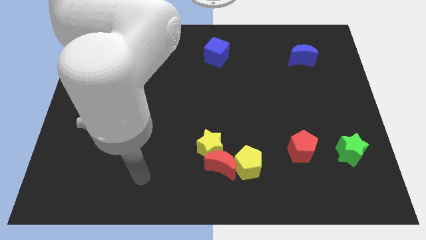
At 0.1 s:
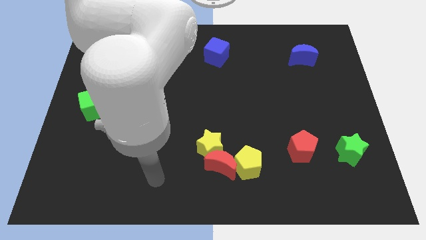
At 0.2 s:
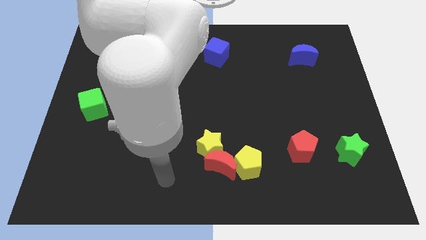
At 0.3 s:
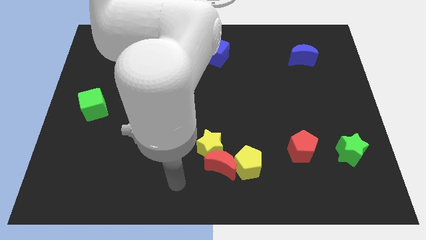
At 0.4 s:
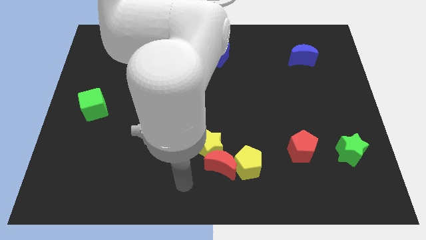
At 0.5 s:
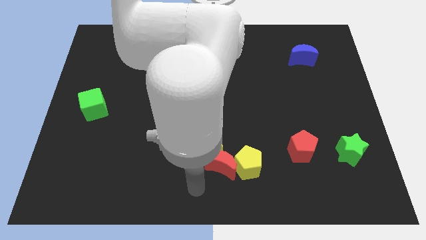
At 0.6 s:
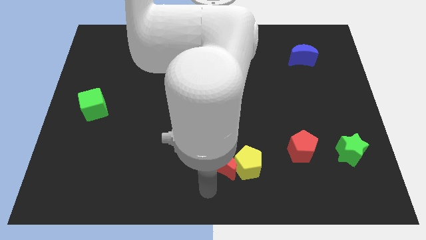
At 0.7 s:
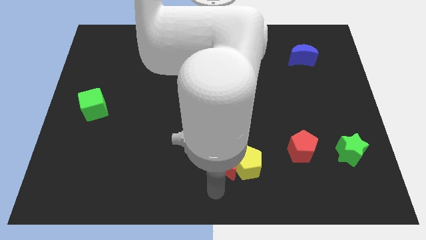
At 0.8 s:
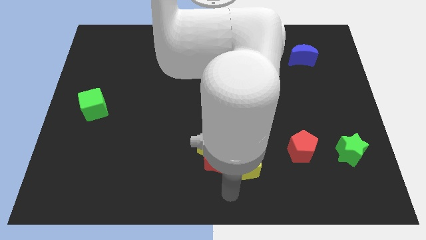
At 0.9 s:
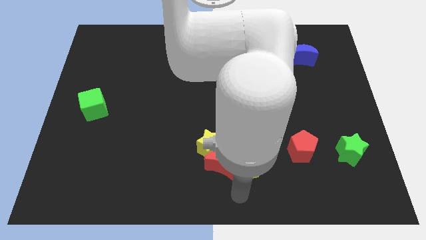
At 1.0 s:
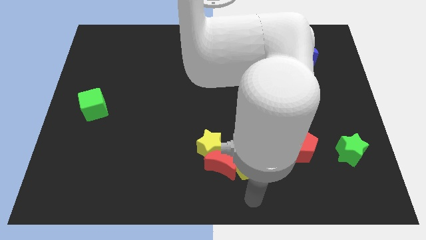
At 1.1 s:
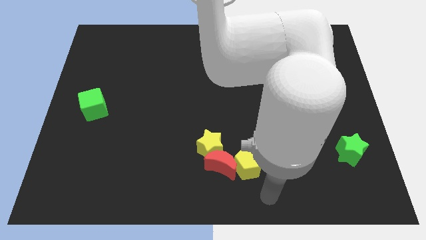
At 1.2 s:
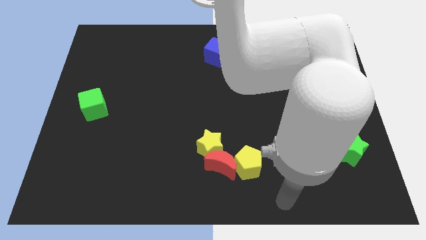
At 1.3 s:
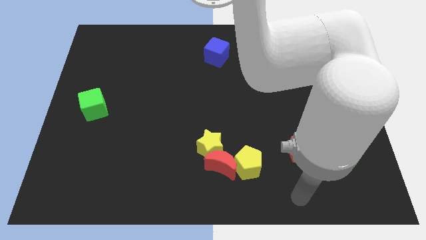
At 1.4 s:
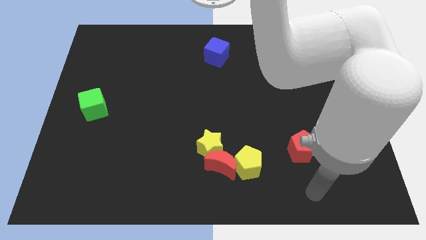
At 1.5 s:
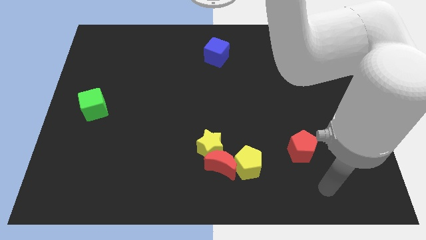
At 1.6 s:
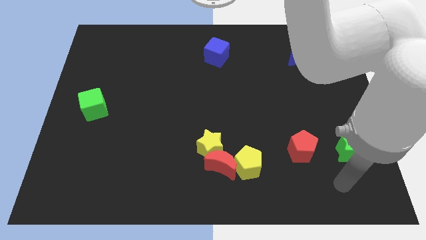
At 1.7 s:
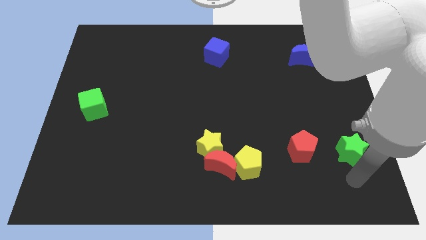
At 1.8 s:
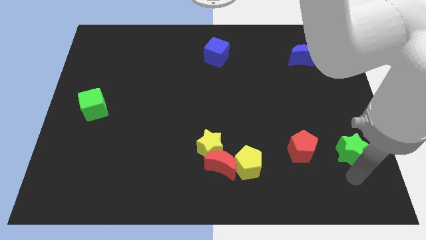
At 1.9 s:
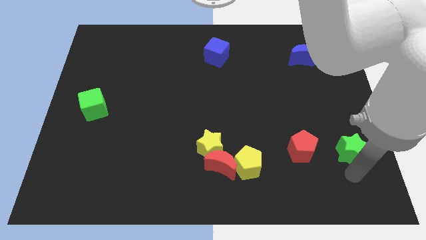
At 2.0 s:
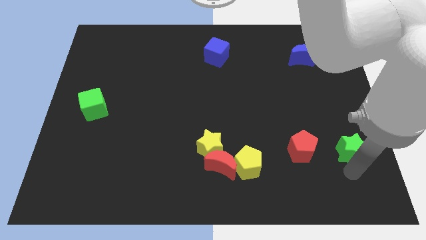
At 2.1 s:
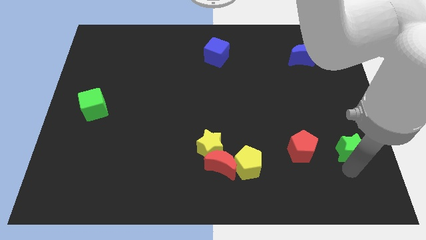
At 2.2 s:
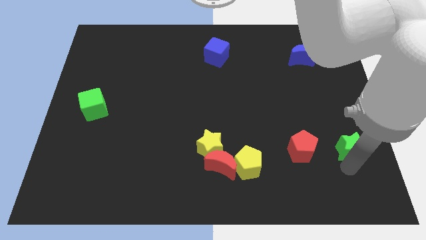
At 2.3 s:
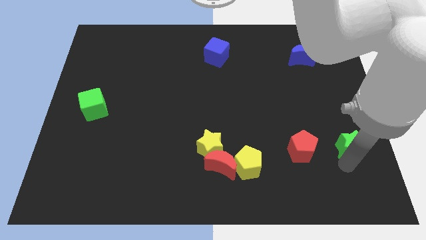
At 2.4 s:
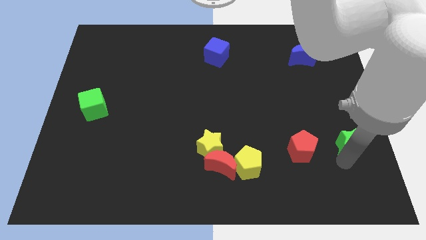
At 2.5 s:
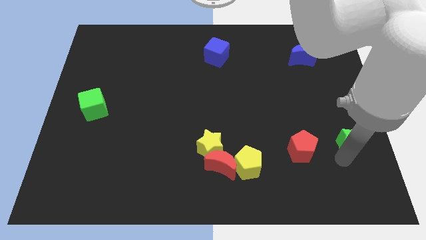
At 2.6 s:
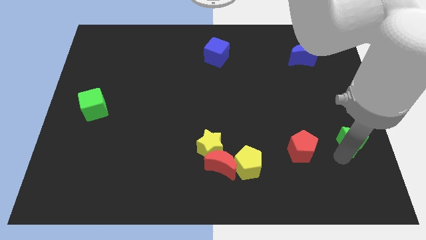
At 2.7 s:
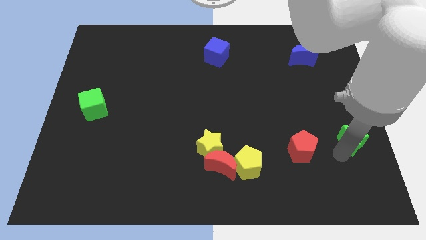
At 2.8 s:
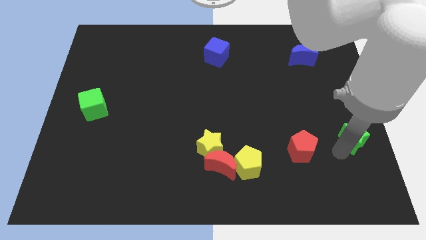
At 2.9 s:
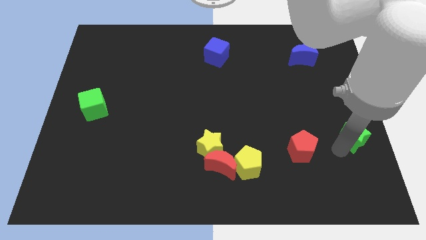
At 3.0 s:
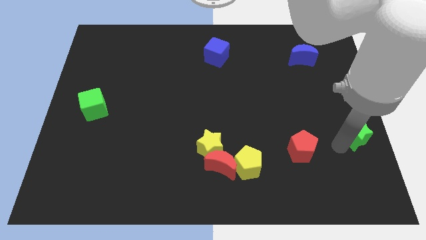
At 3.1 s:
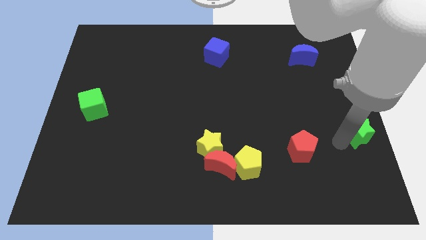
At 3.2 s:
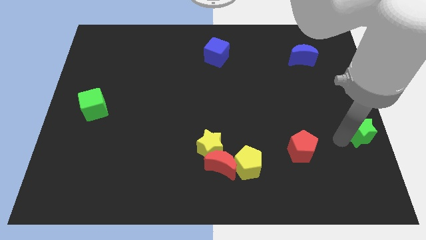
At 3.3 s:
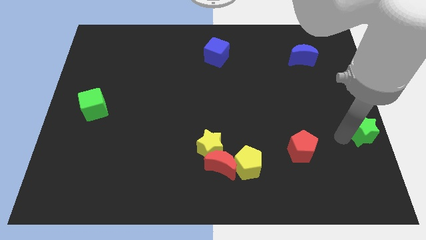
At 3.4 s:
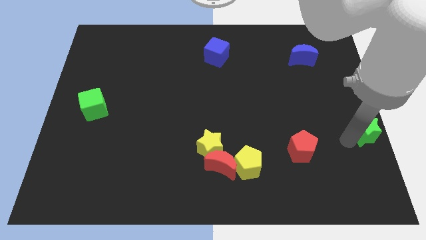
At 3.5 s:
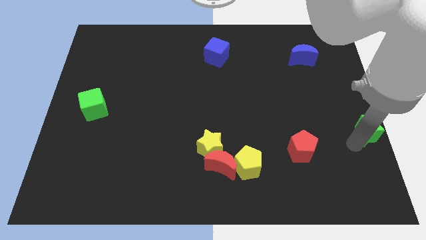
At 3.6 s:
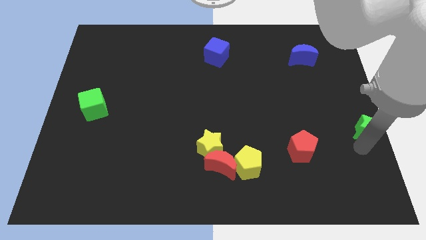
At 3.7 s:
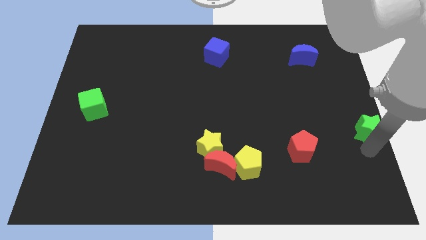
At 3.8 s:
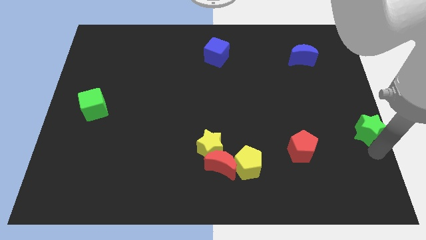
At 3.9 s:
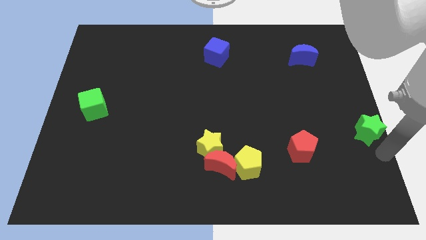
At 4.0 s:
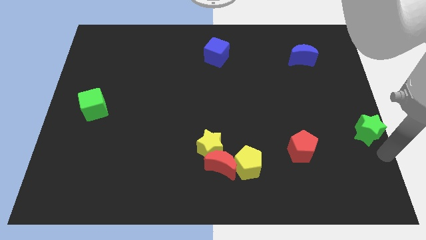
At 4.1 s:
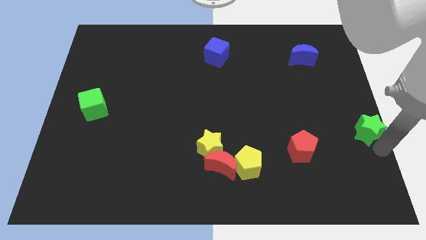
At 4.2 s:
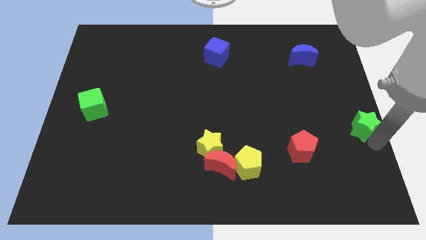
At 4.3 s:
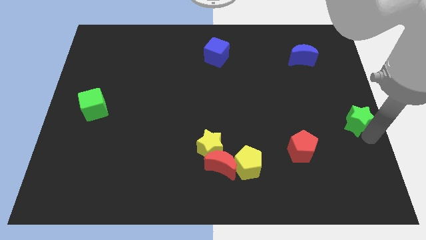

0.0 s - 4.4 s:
slide the green star slightly upwards

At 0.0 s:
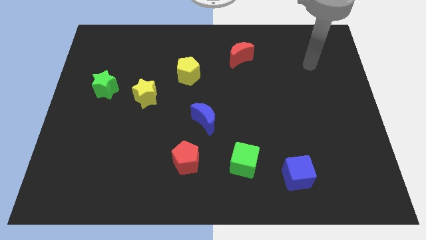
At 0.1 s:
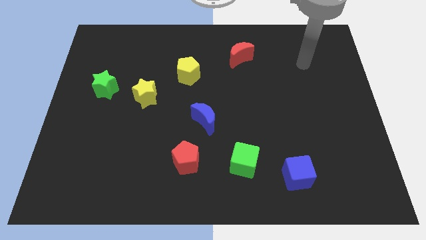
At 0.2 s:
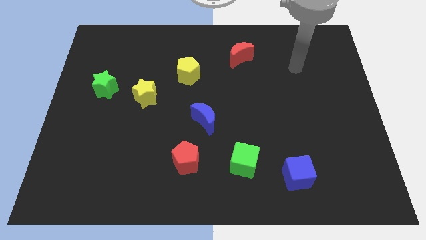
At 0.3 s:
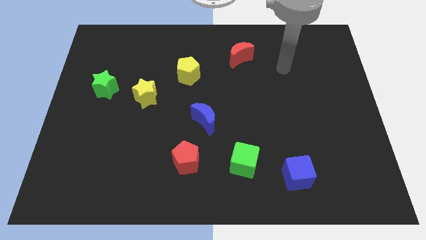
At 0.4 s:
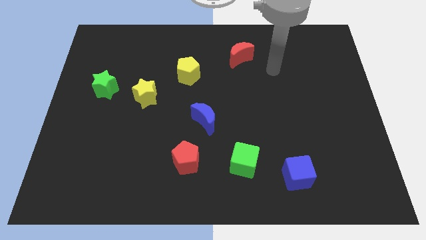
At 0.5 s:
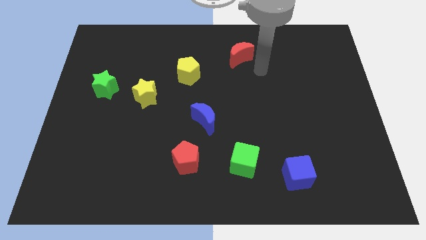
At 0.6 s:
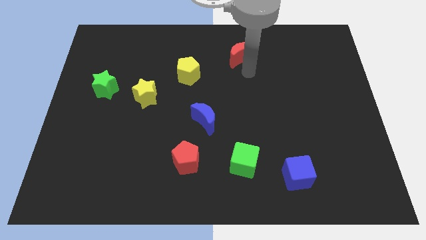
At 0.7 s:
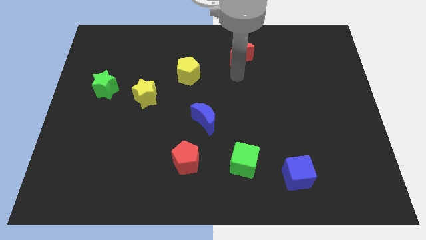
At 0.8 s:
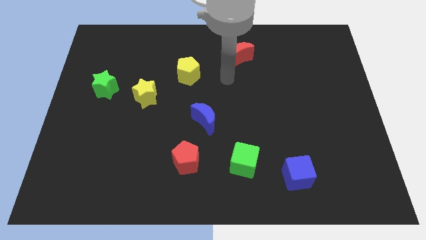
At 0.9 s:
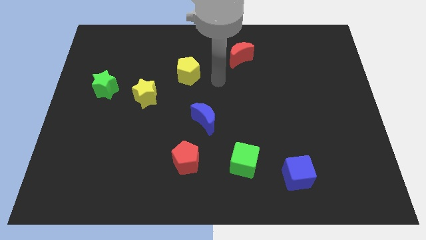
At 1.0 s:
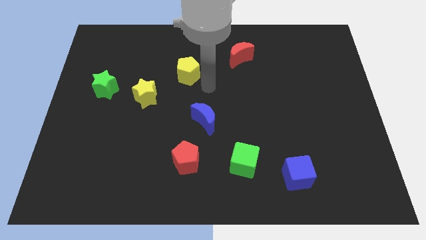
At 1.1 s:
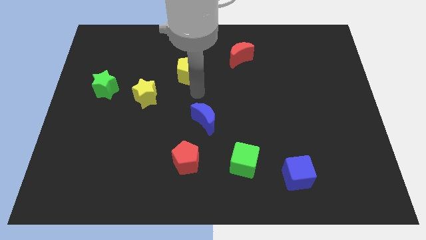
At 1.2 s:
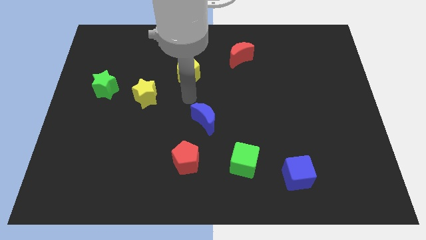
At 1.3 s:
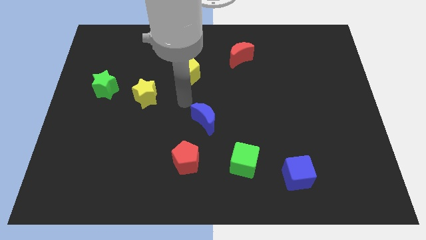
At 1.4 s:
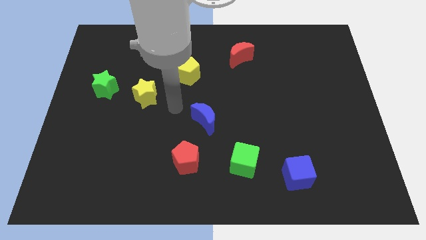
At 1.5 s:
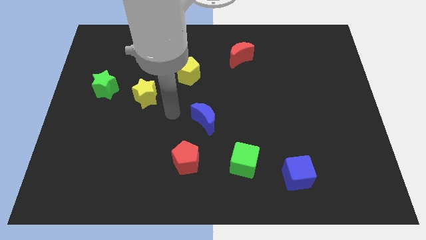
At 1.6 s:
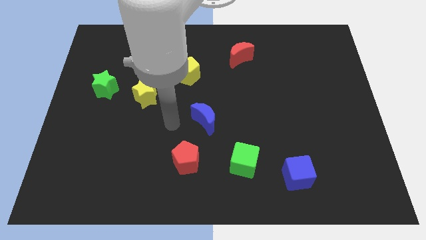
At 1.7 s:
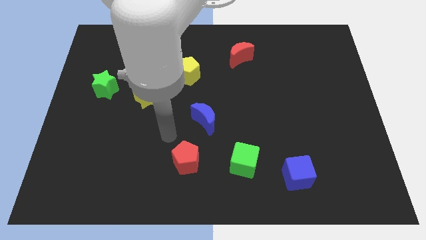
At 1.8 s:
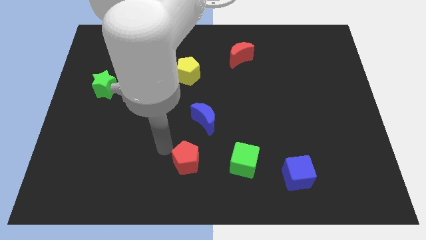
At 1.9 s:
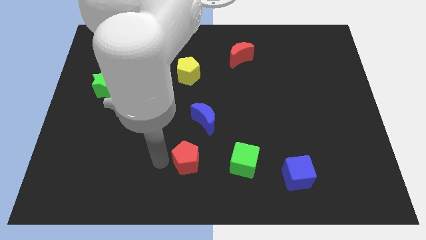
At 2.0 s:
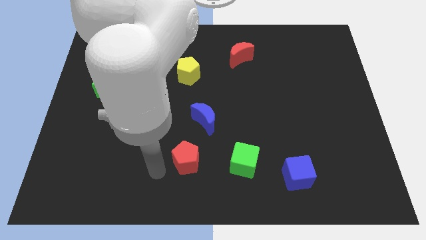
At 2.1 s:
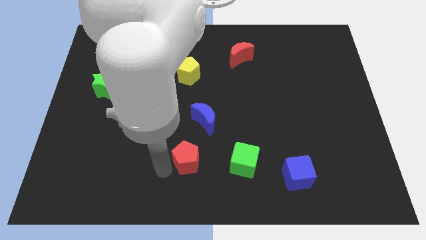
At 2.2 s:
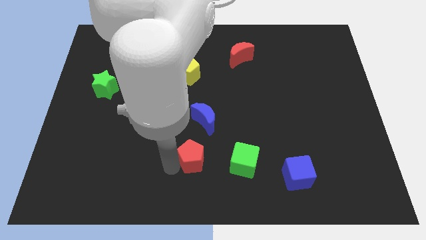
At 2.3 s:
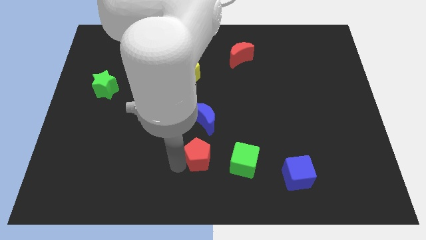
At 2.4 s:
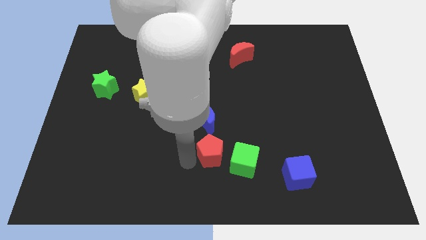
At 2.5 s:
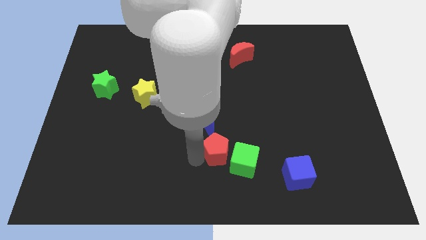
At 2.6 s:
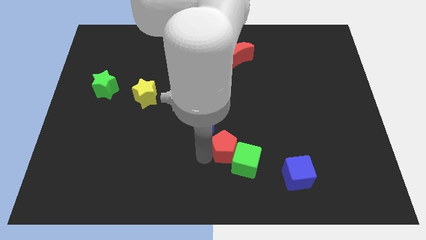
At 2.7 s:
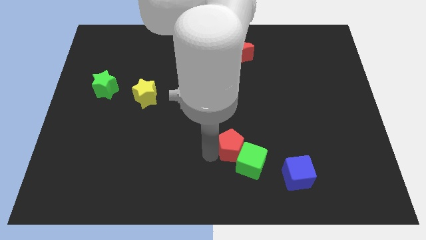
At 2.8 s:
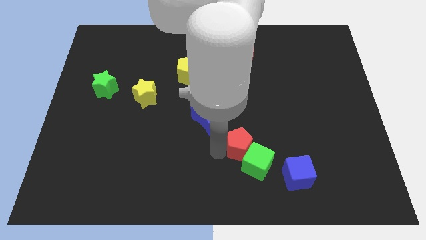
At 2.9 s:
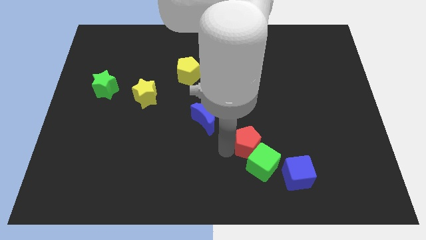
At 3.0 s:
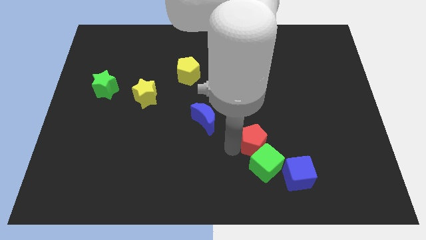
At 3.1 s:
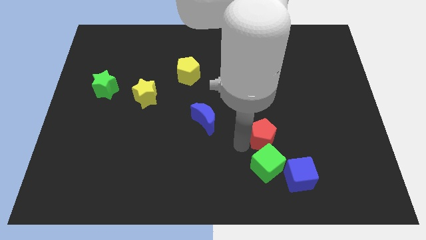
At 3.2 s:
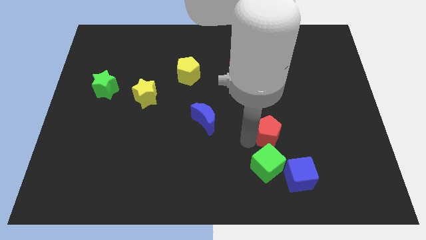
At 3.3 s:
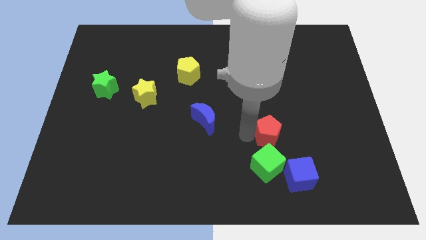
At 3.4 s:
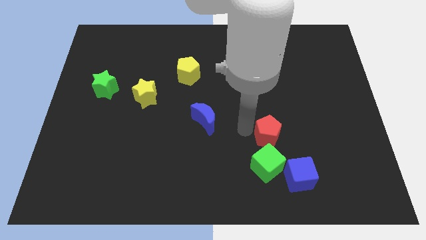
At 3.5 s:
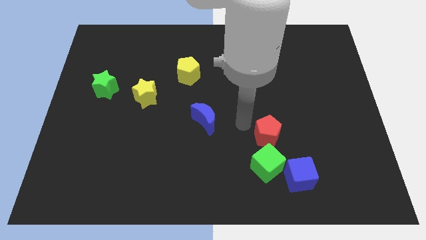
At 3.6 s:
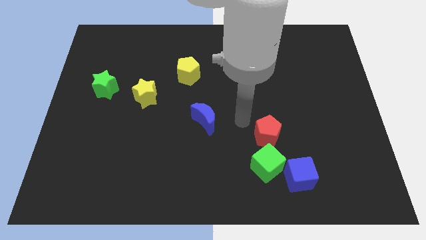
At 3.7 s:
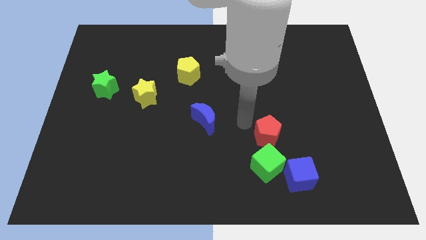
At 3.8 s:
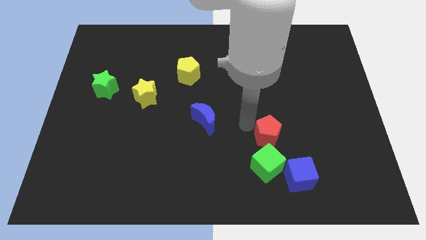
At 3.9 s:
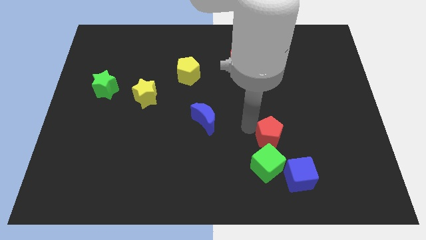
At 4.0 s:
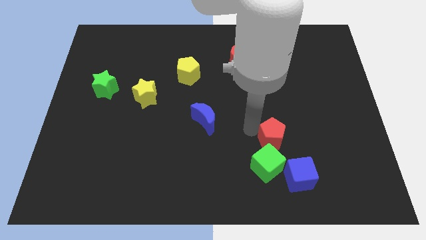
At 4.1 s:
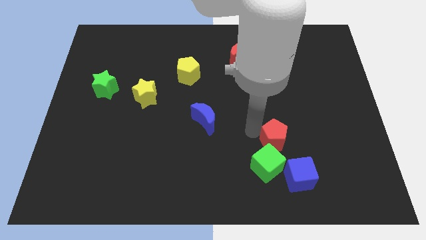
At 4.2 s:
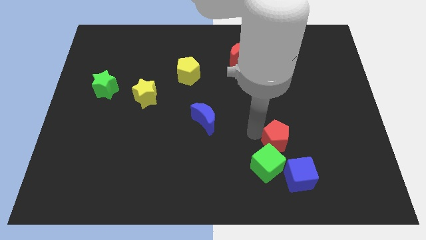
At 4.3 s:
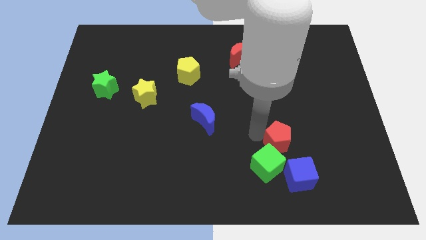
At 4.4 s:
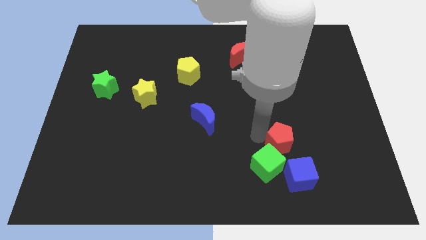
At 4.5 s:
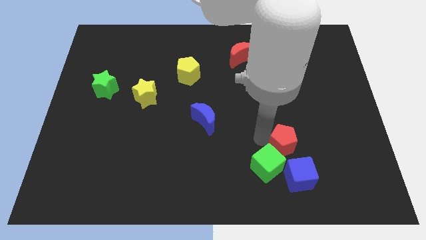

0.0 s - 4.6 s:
move the red pentagon to the right
